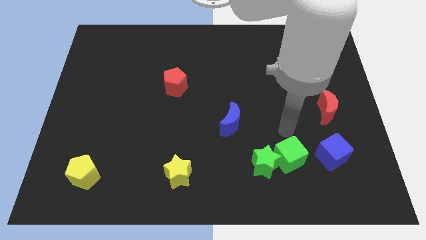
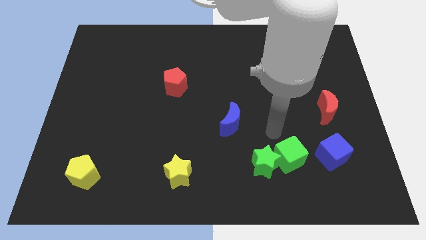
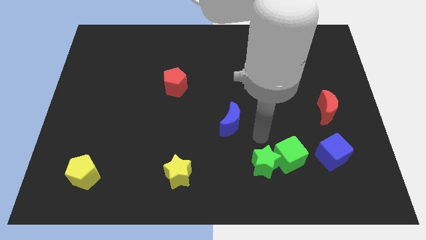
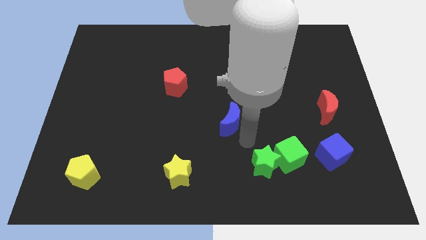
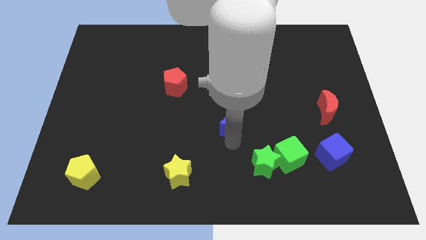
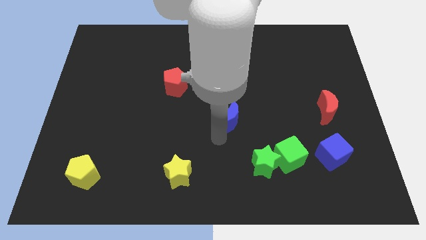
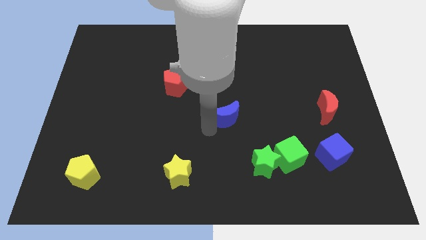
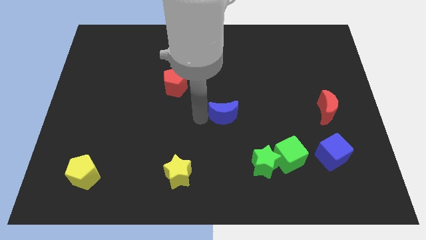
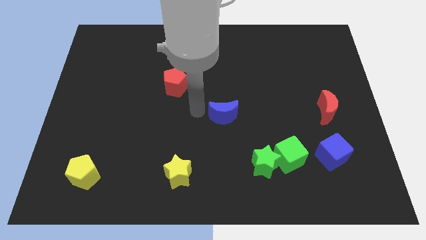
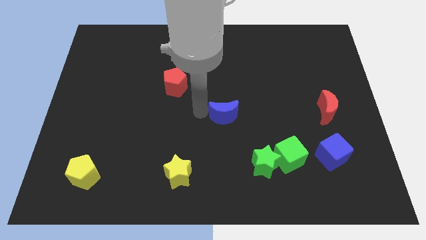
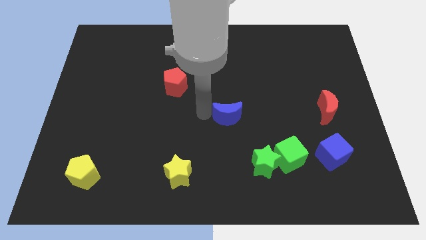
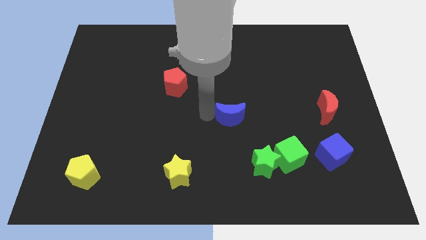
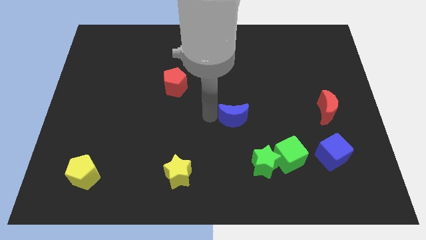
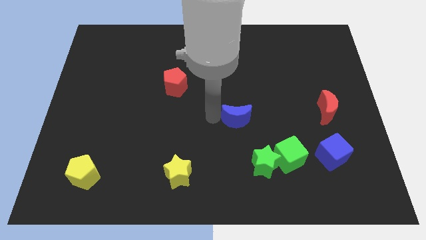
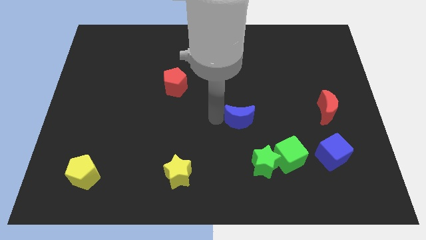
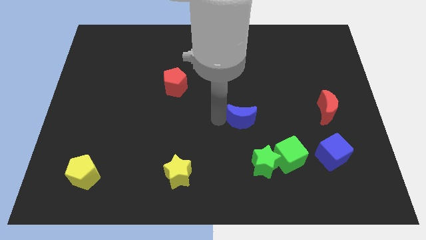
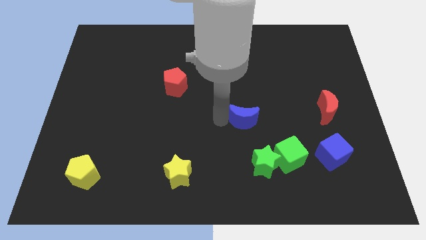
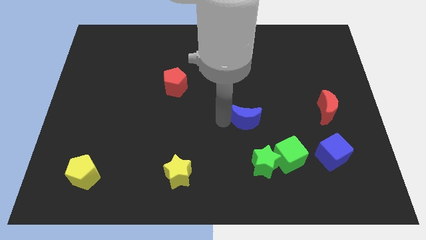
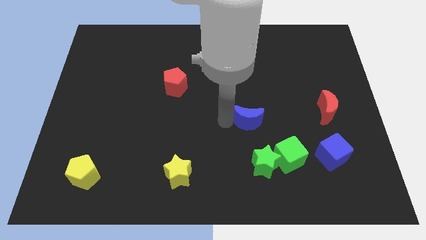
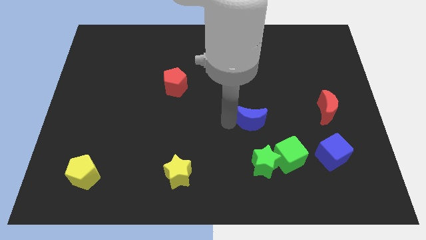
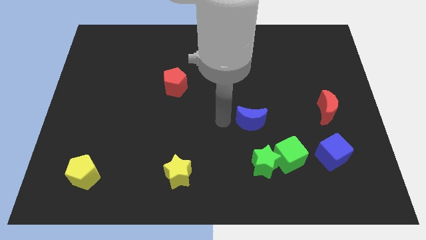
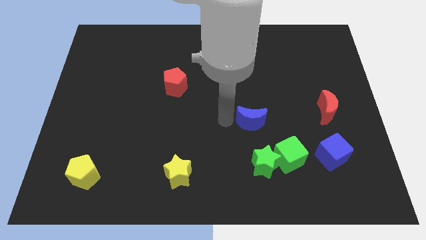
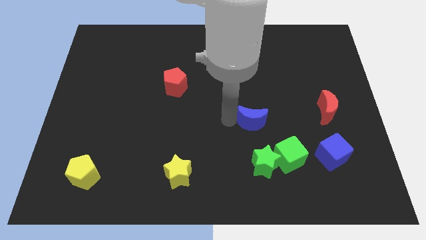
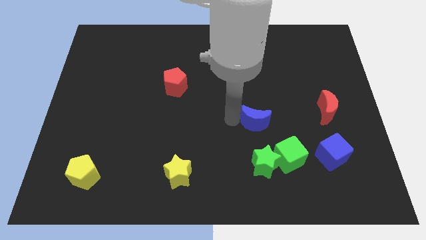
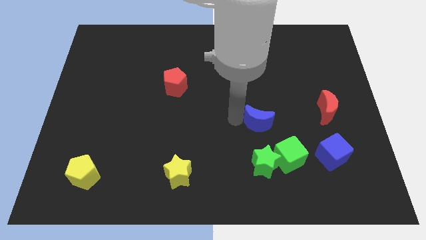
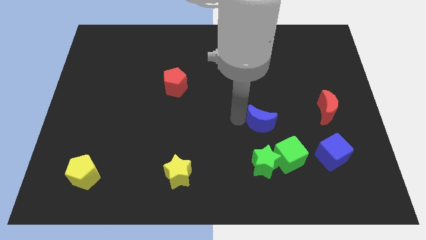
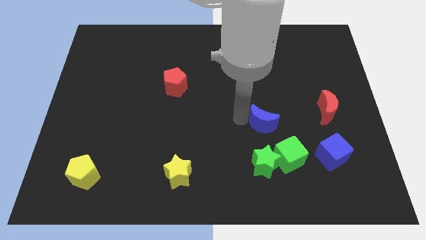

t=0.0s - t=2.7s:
slightly slide the blue moon to the right

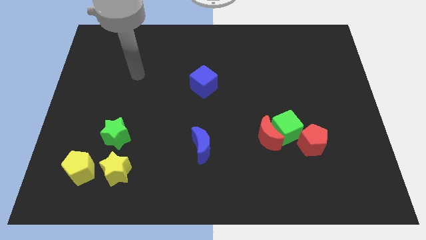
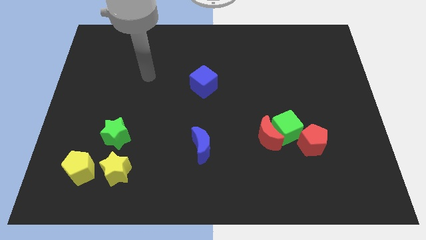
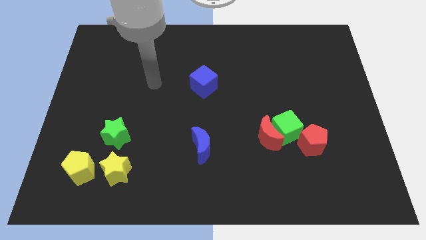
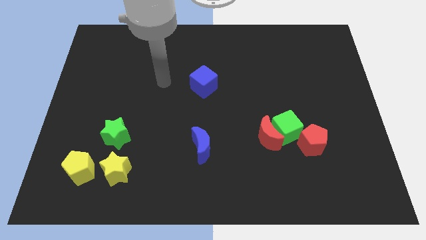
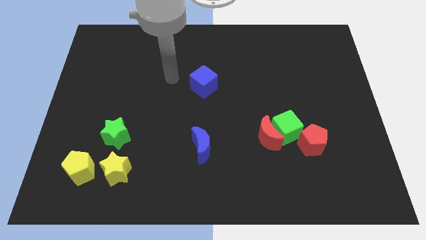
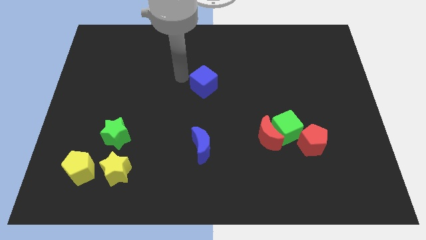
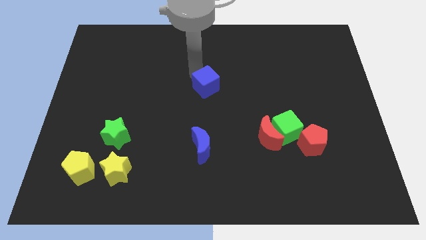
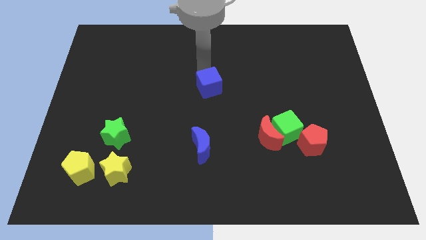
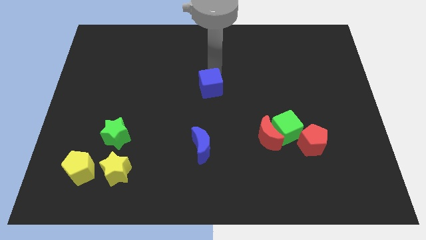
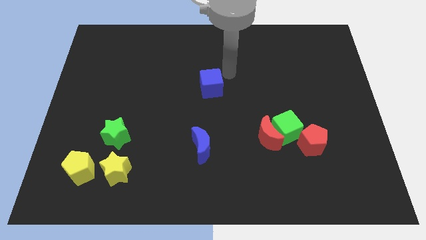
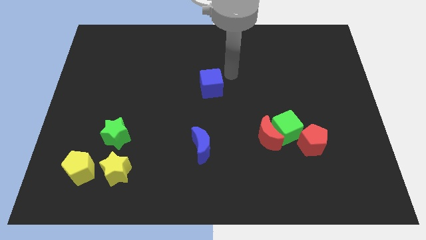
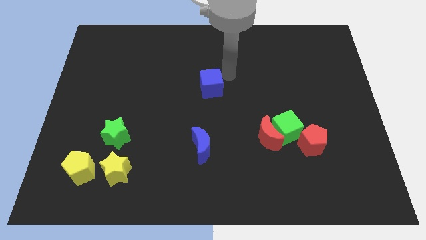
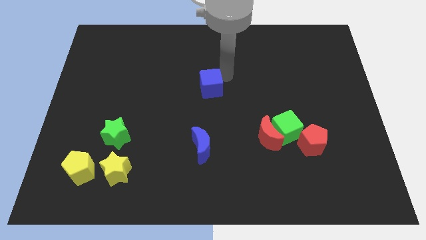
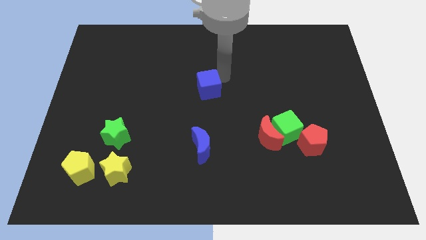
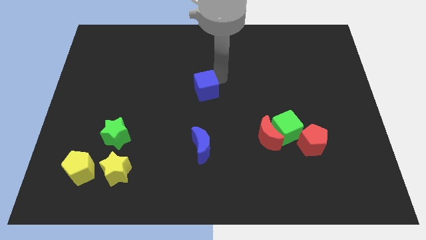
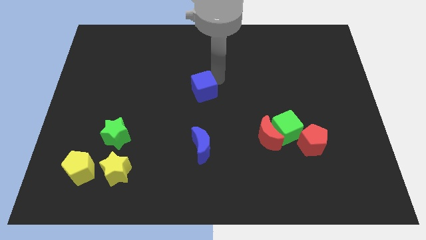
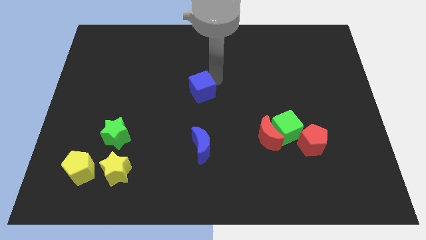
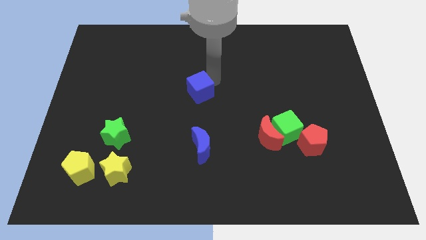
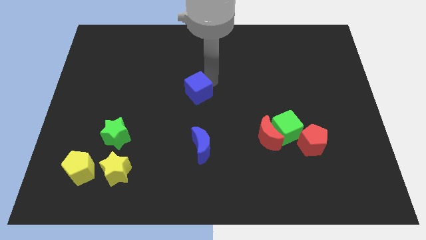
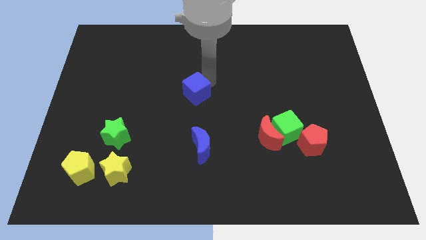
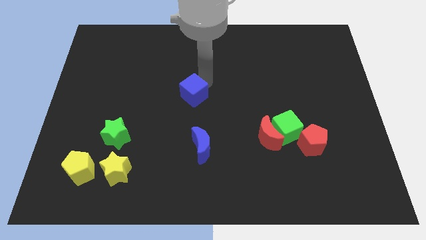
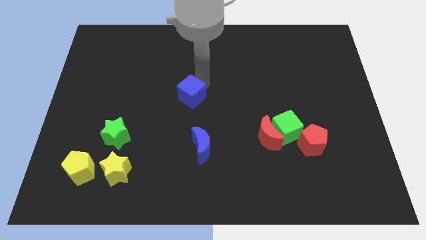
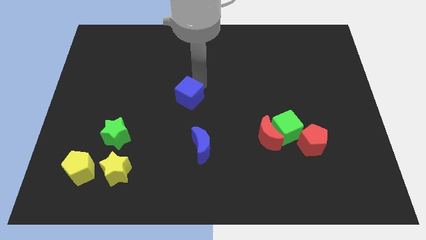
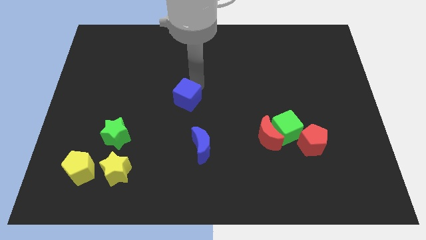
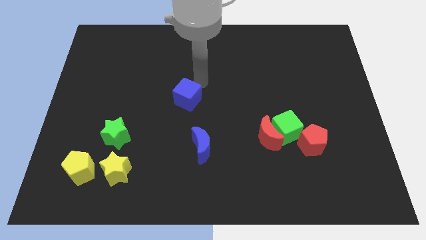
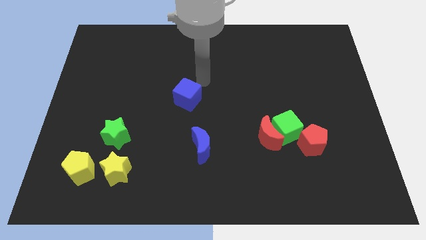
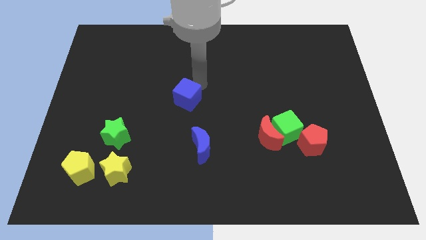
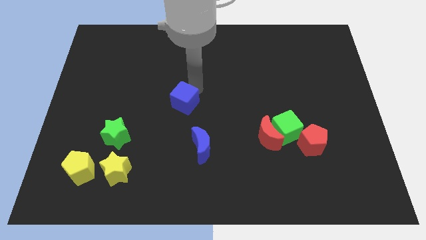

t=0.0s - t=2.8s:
move the blue cube somewhat downwards and left

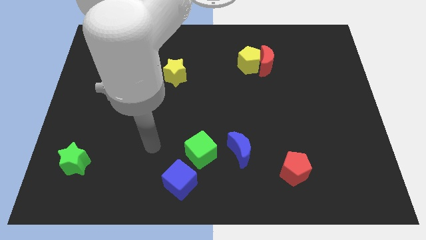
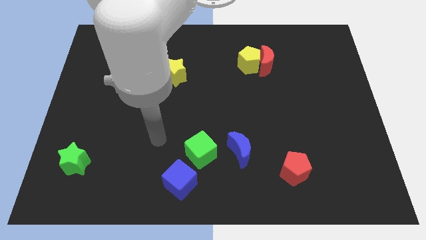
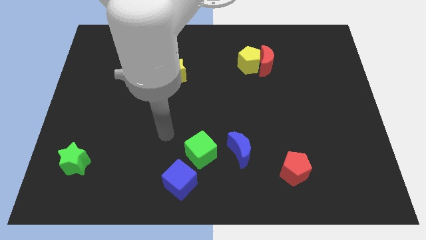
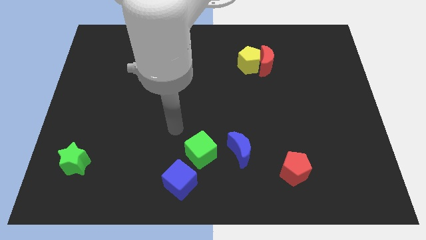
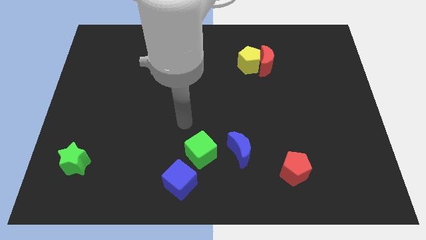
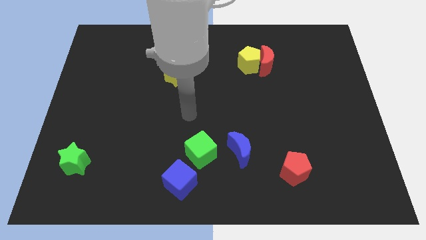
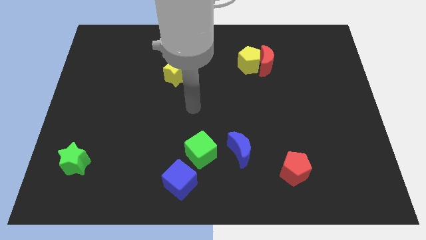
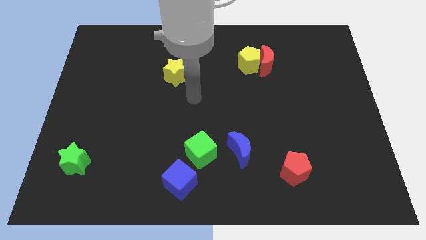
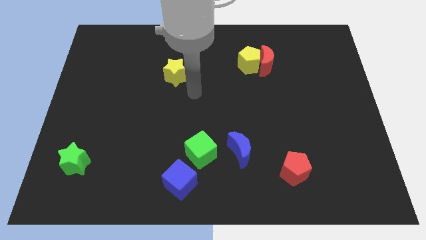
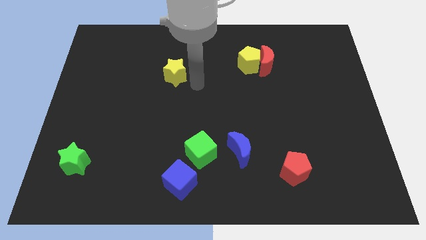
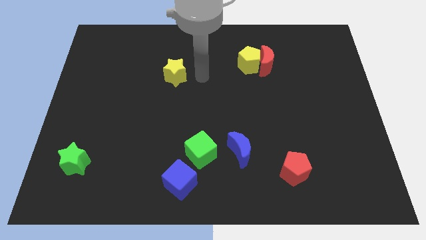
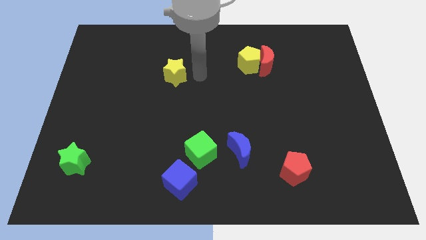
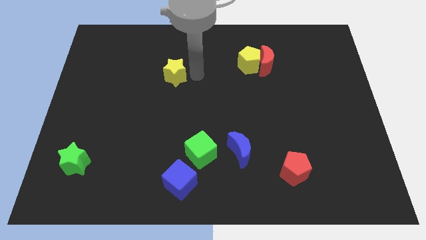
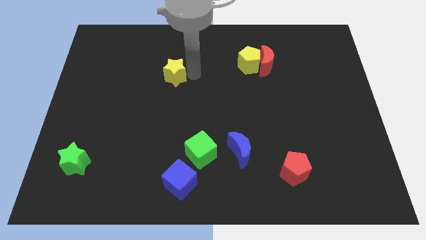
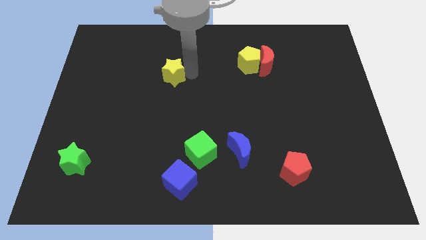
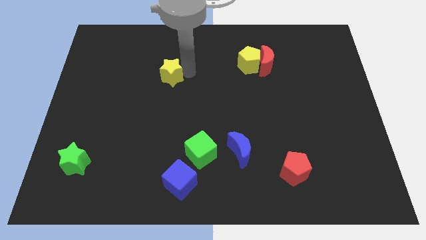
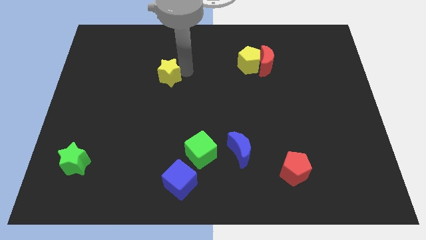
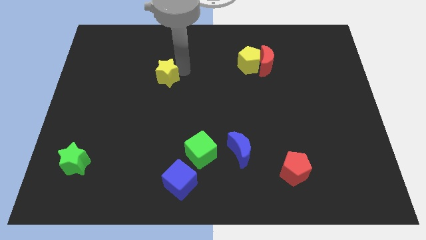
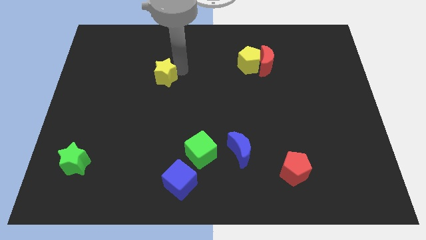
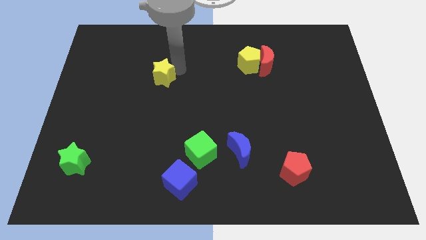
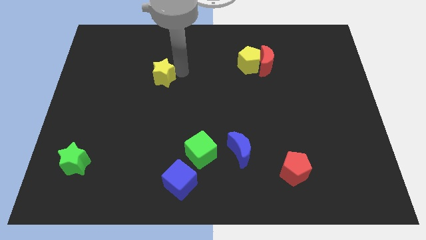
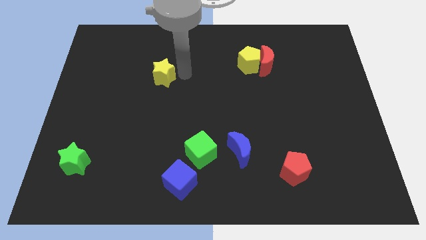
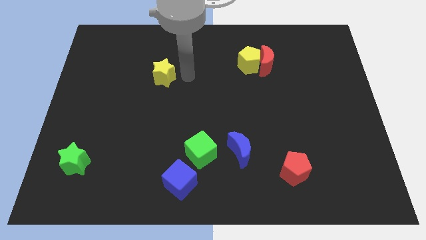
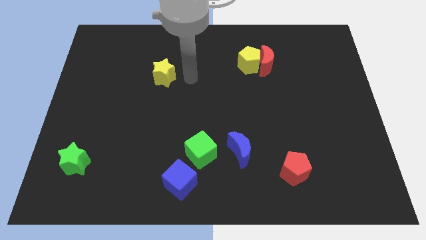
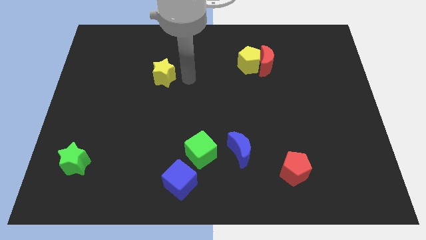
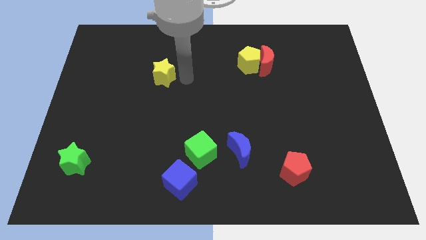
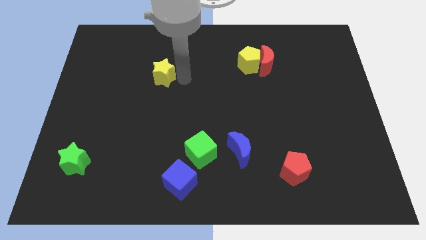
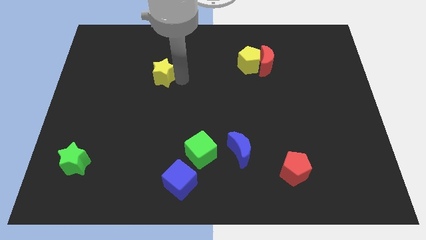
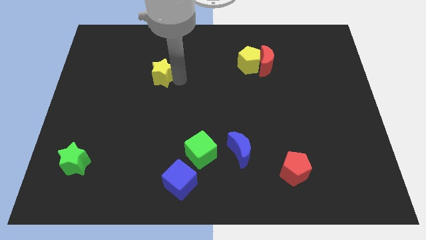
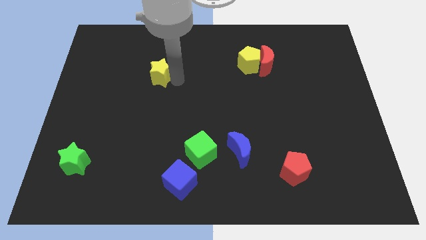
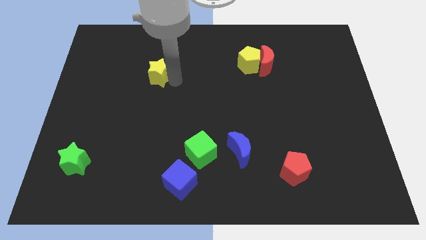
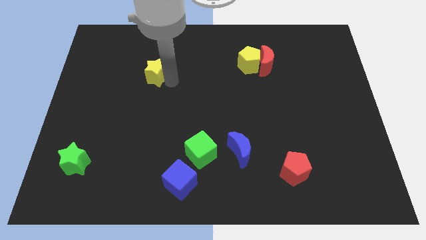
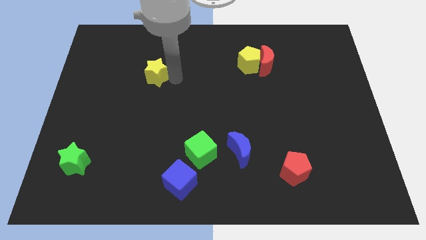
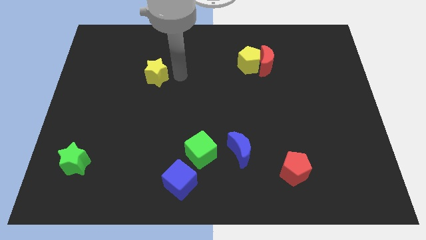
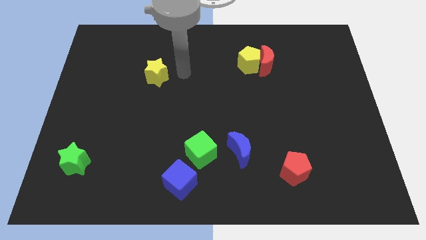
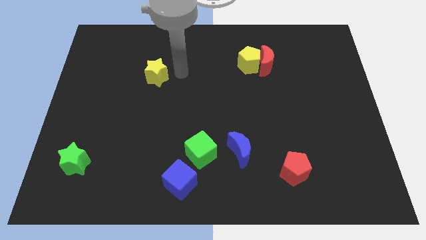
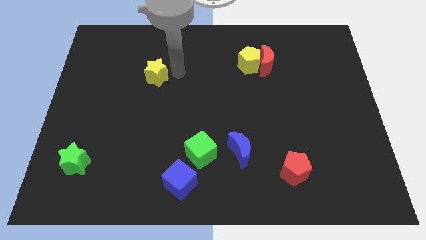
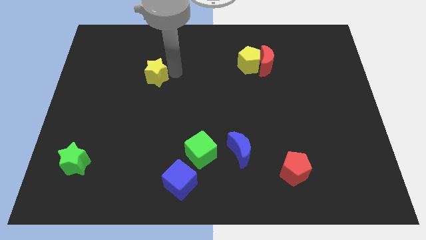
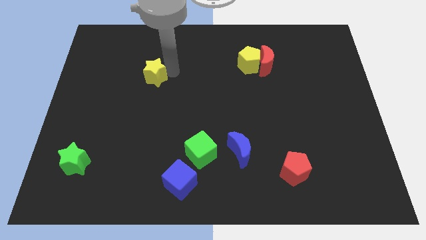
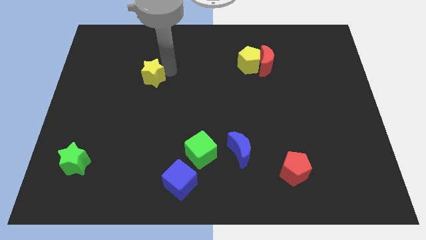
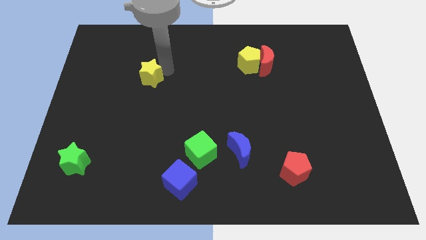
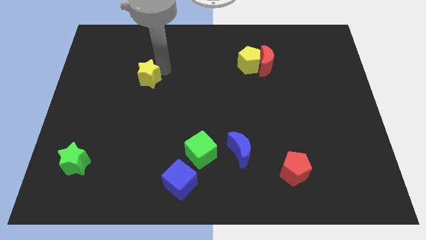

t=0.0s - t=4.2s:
slightly move the yellow star left
